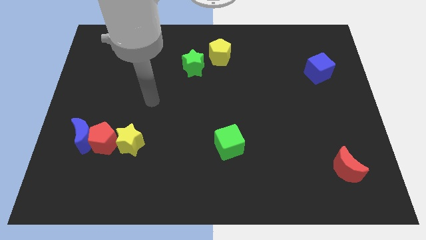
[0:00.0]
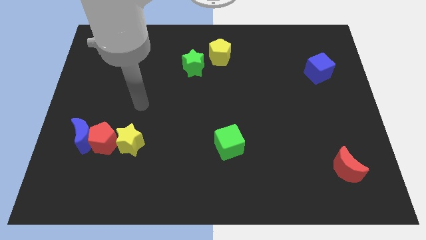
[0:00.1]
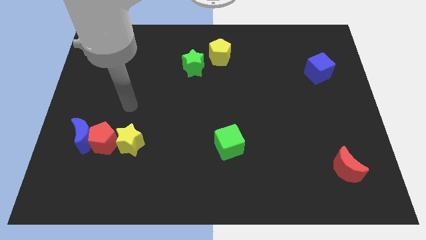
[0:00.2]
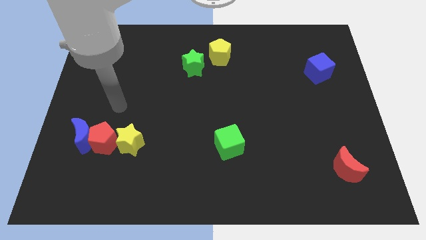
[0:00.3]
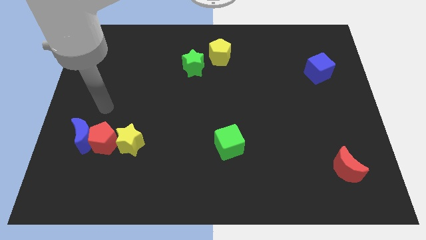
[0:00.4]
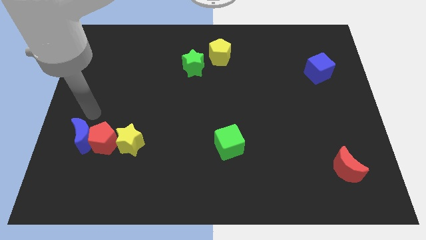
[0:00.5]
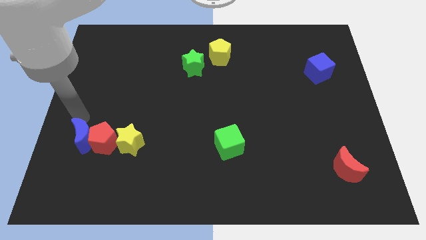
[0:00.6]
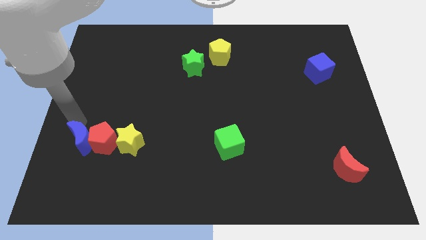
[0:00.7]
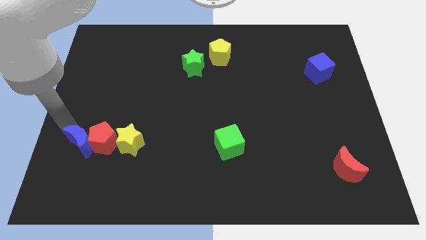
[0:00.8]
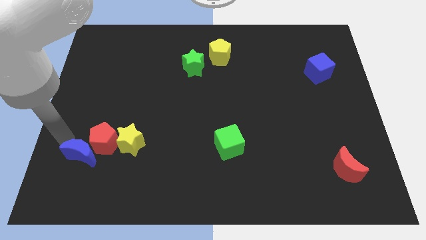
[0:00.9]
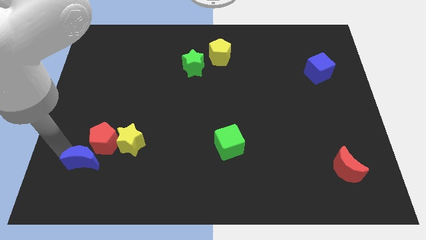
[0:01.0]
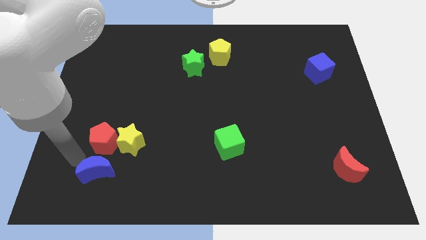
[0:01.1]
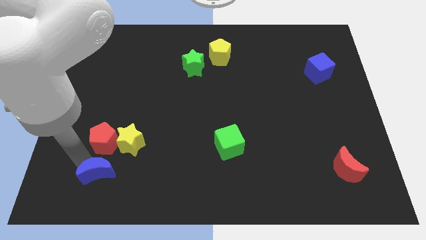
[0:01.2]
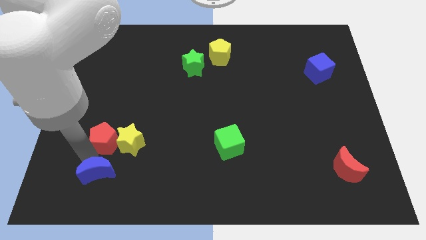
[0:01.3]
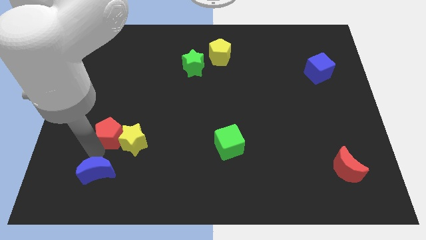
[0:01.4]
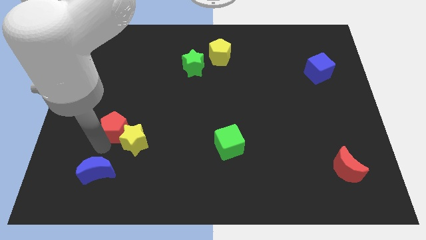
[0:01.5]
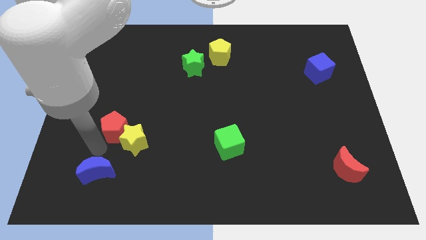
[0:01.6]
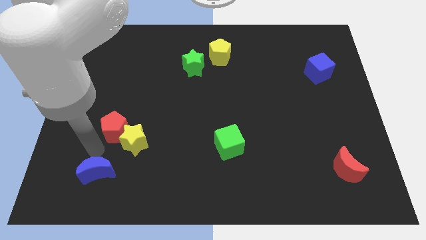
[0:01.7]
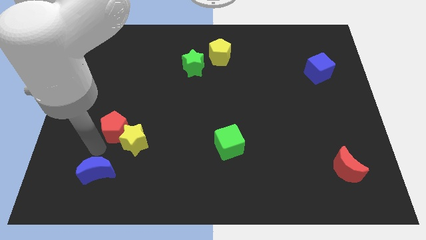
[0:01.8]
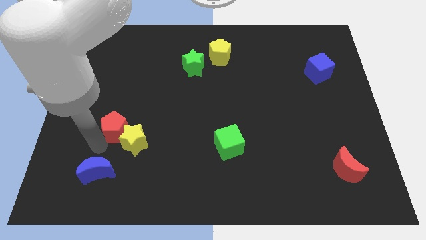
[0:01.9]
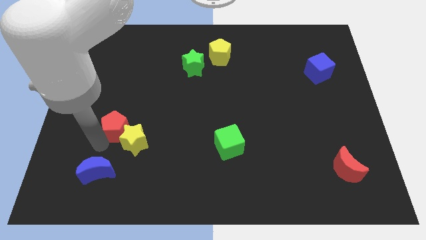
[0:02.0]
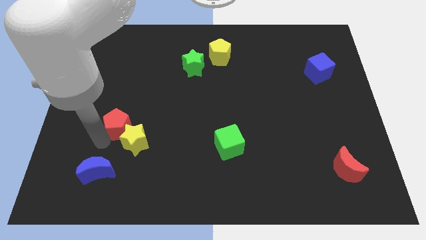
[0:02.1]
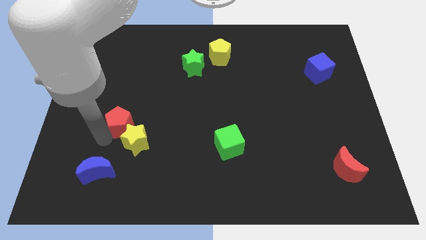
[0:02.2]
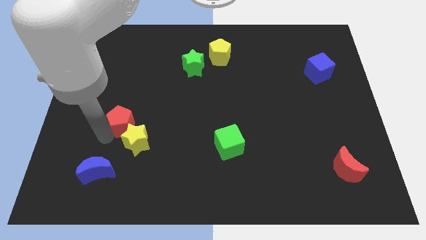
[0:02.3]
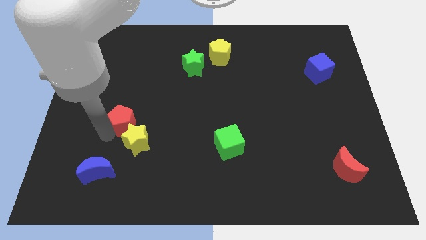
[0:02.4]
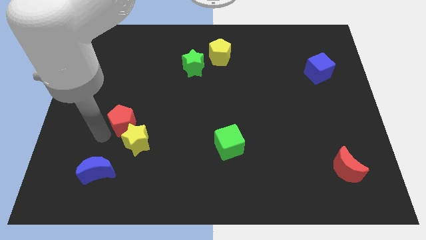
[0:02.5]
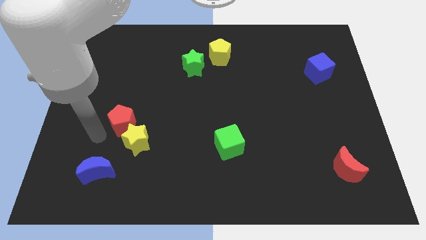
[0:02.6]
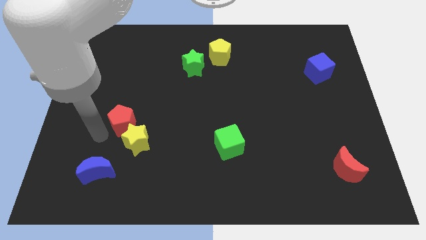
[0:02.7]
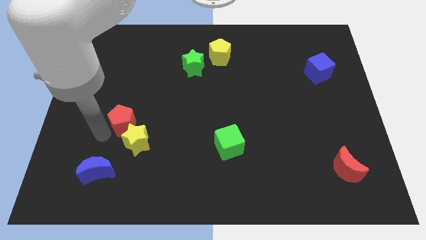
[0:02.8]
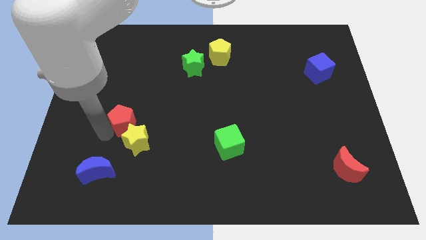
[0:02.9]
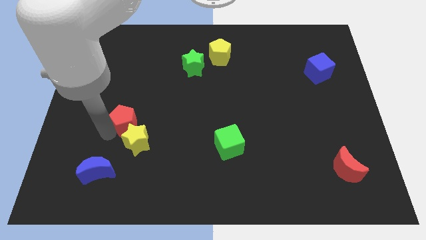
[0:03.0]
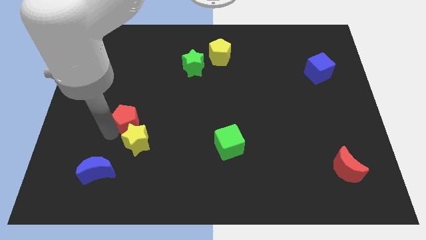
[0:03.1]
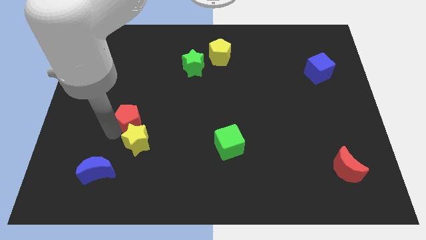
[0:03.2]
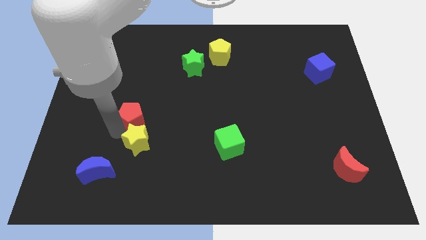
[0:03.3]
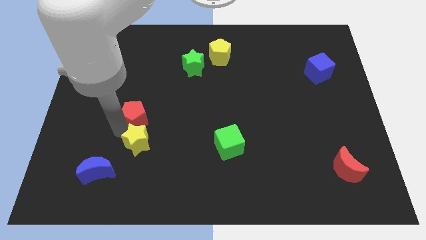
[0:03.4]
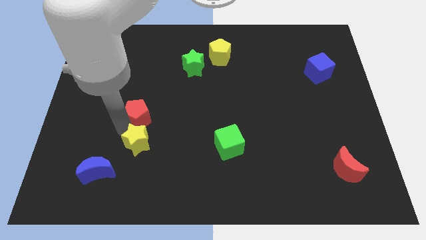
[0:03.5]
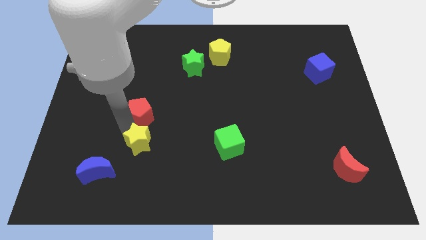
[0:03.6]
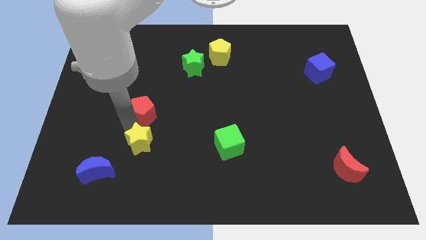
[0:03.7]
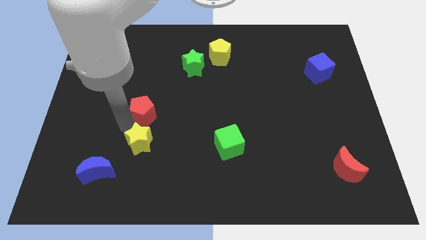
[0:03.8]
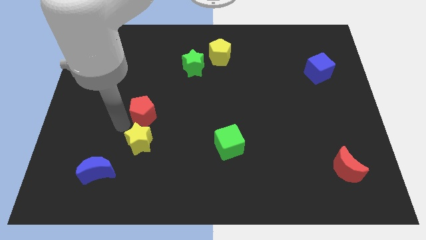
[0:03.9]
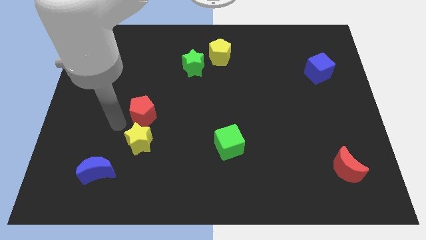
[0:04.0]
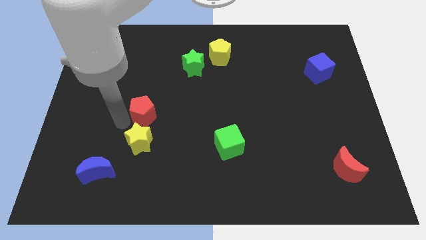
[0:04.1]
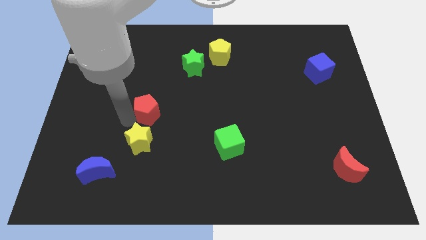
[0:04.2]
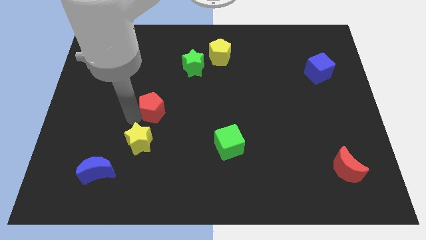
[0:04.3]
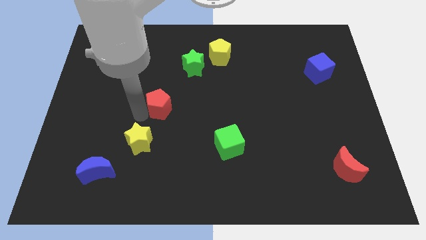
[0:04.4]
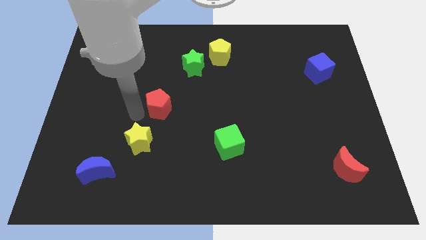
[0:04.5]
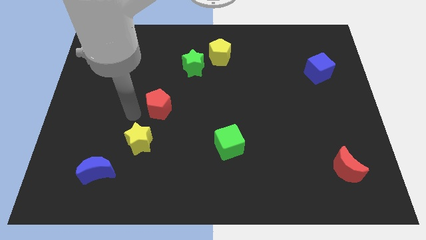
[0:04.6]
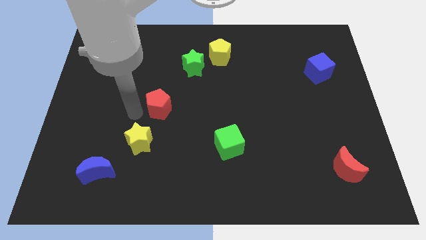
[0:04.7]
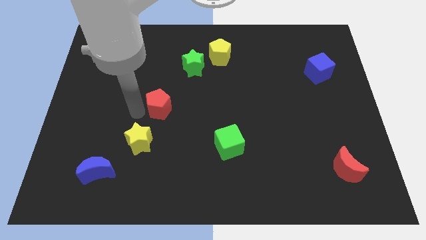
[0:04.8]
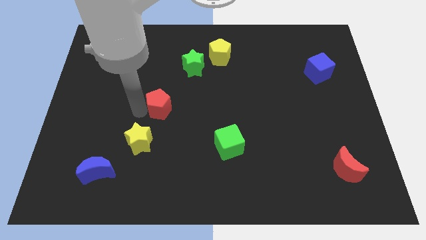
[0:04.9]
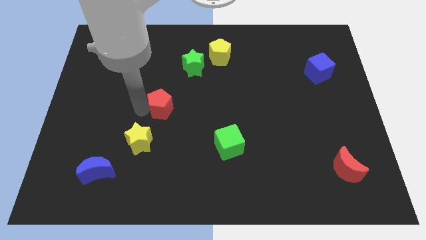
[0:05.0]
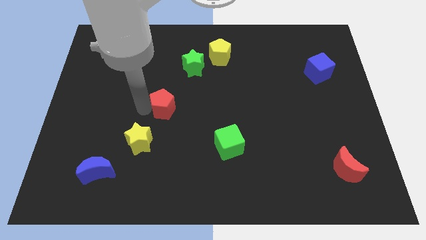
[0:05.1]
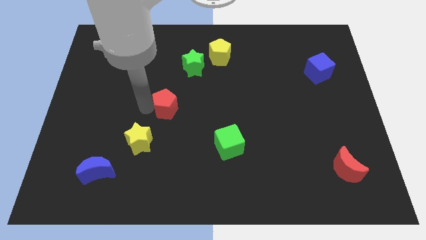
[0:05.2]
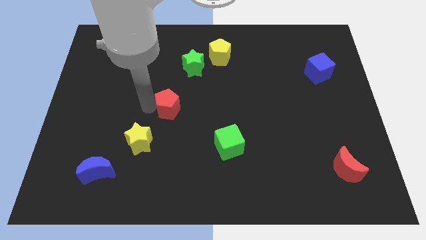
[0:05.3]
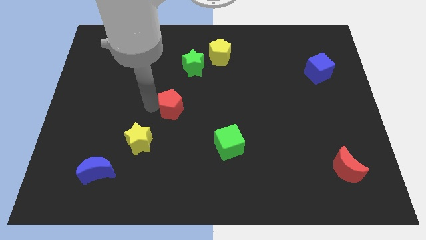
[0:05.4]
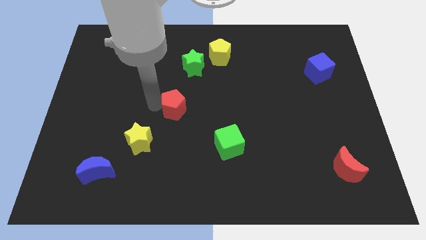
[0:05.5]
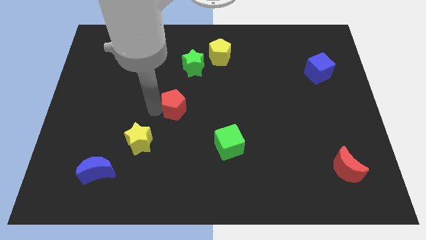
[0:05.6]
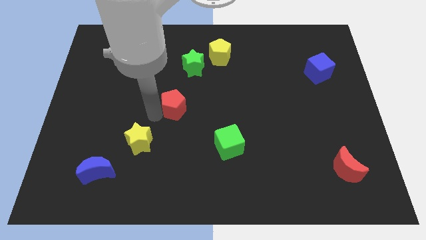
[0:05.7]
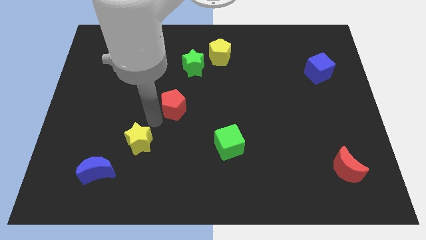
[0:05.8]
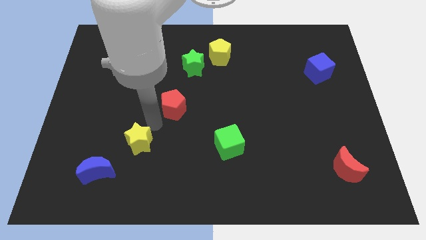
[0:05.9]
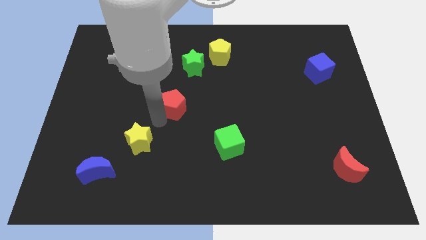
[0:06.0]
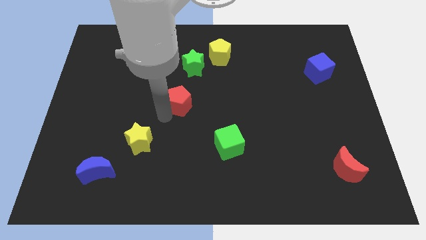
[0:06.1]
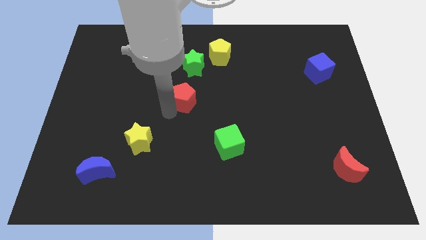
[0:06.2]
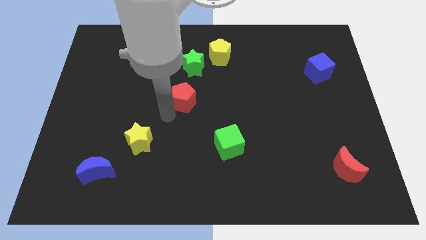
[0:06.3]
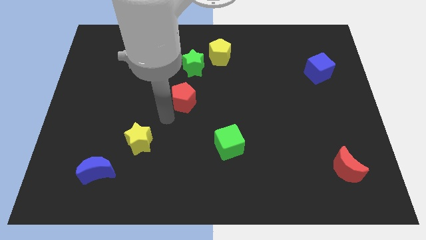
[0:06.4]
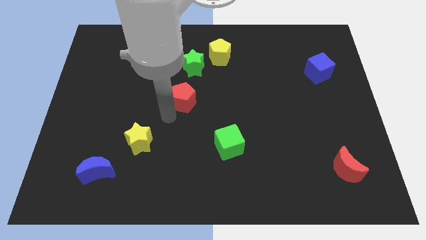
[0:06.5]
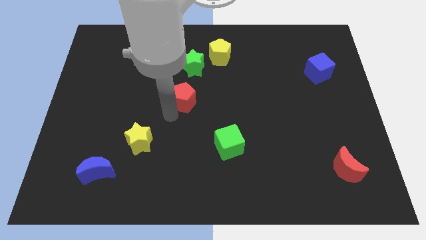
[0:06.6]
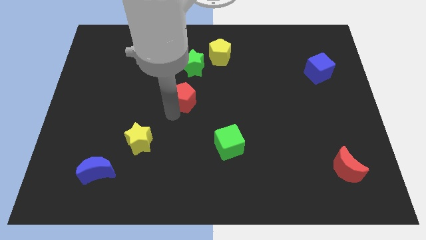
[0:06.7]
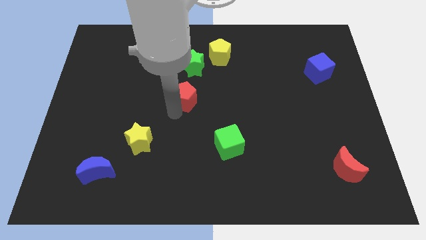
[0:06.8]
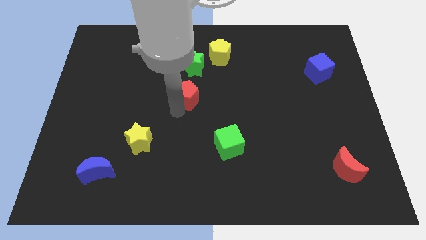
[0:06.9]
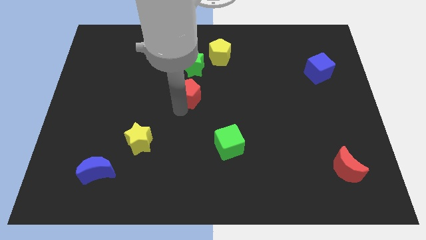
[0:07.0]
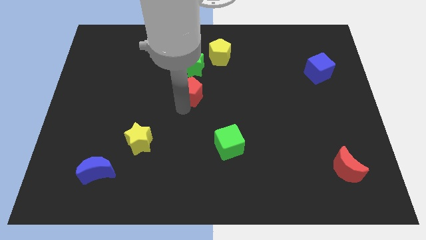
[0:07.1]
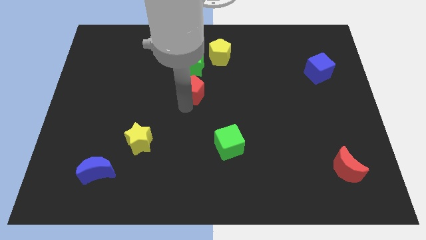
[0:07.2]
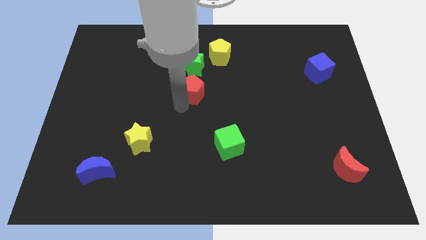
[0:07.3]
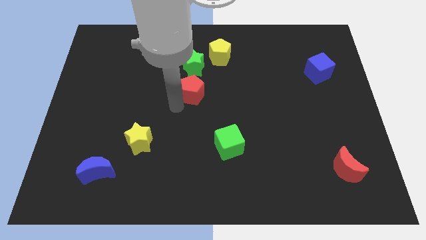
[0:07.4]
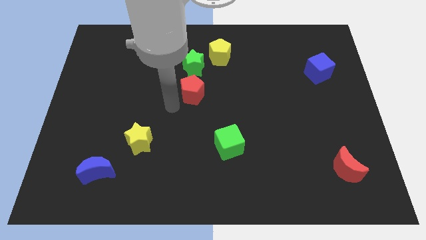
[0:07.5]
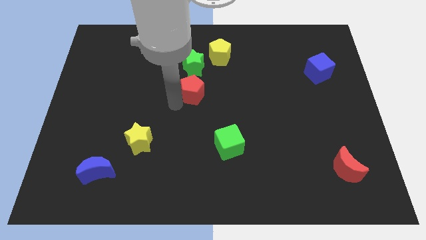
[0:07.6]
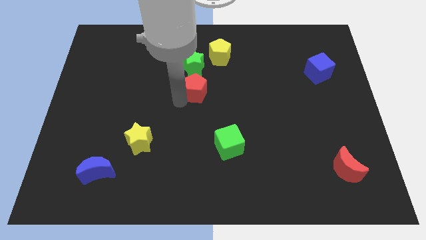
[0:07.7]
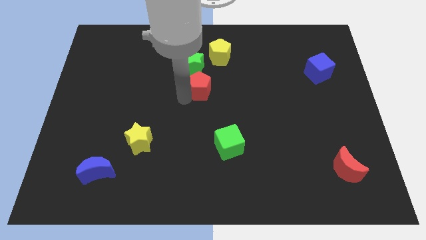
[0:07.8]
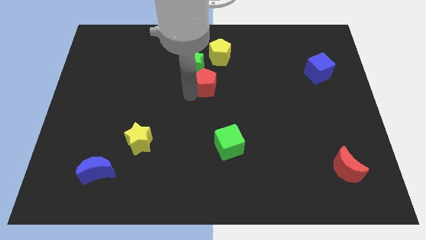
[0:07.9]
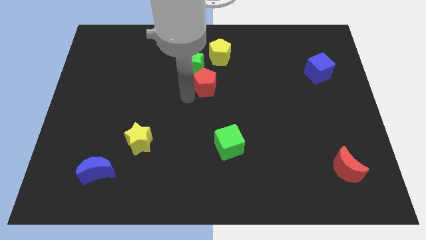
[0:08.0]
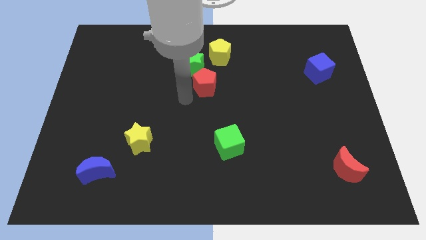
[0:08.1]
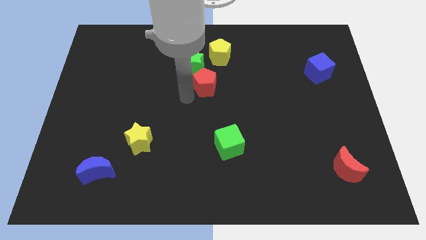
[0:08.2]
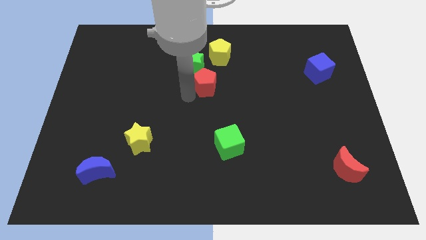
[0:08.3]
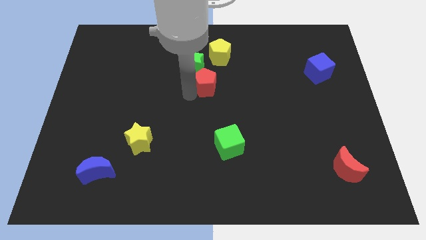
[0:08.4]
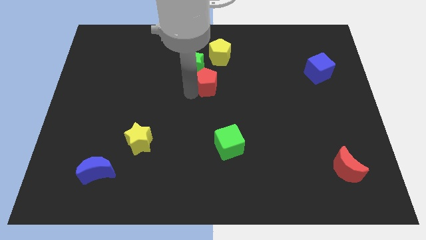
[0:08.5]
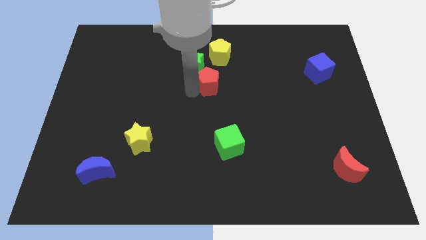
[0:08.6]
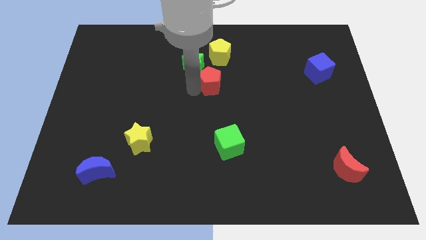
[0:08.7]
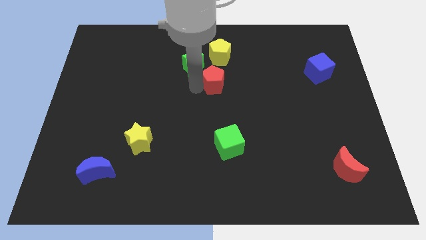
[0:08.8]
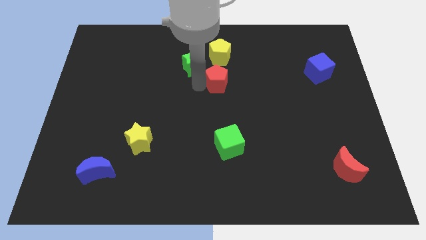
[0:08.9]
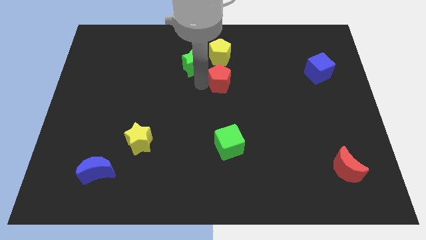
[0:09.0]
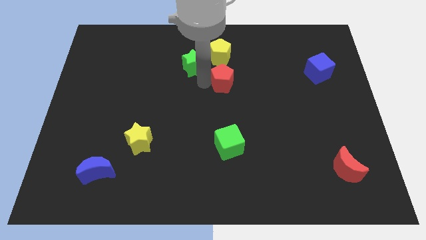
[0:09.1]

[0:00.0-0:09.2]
slide the red pentagon right of the green star
